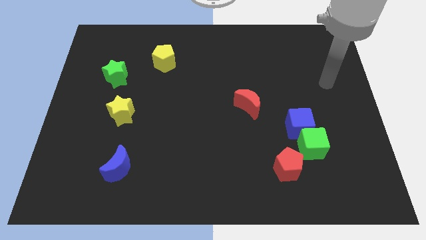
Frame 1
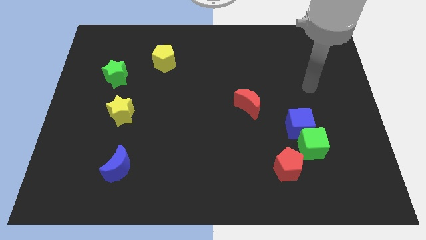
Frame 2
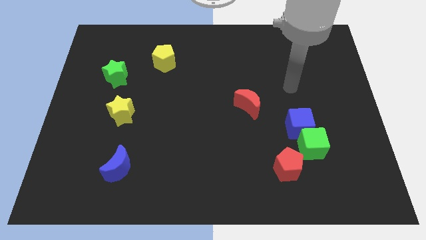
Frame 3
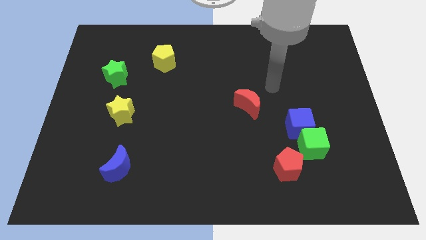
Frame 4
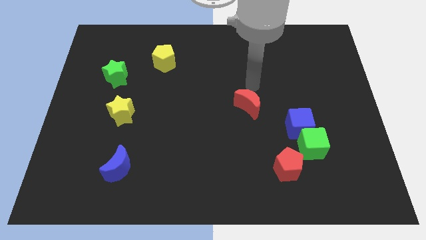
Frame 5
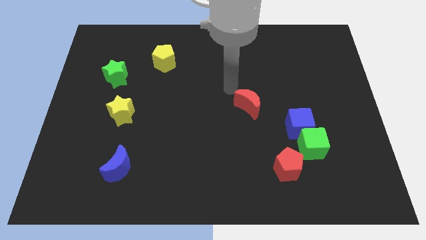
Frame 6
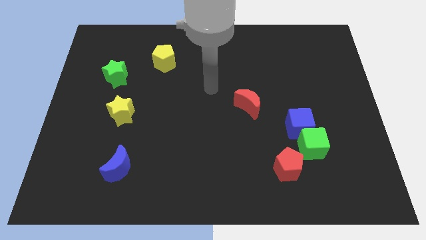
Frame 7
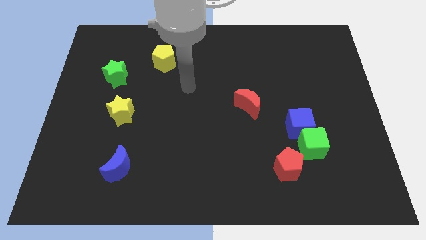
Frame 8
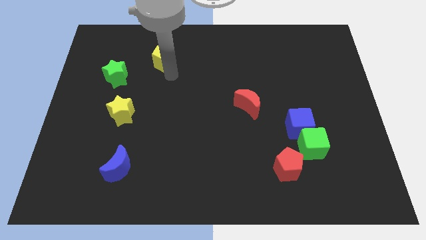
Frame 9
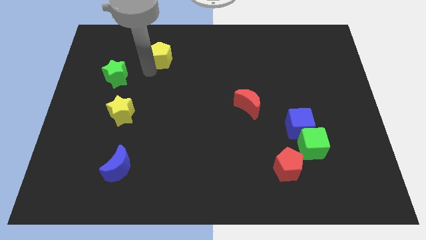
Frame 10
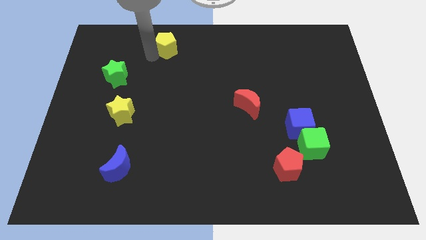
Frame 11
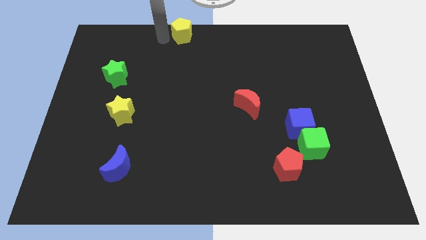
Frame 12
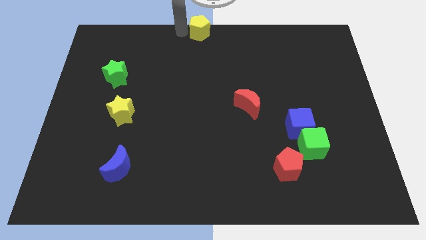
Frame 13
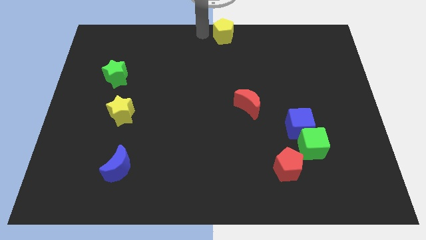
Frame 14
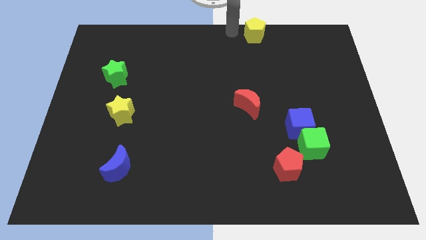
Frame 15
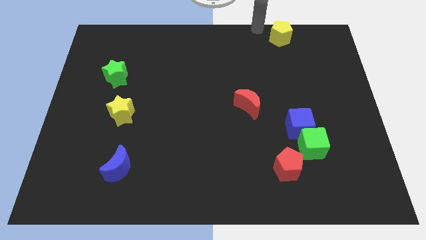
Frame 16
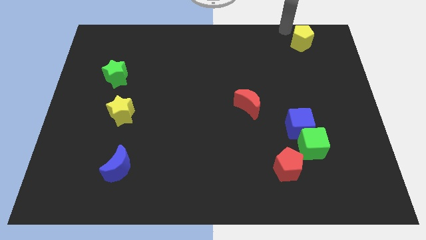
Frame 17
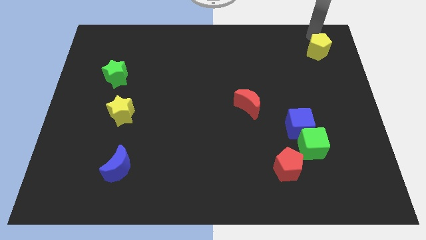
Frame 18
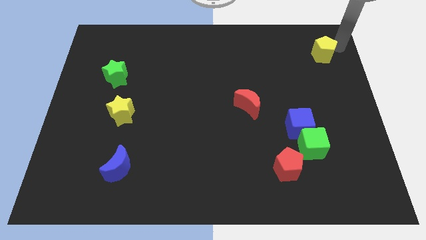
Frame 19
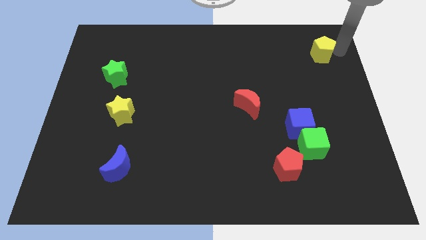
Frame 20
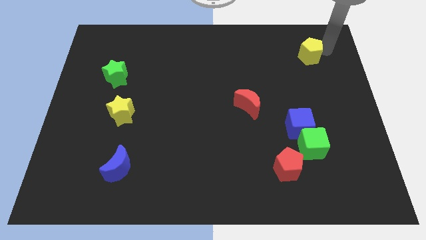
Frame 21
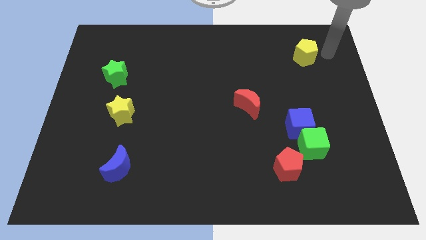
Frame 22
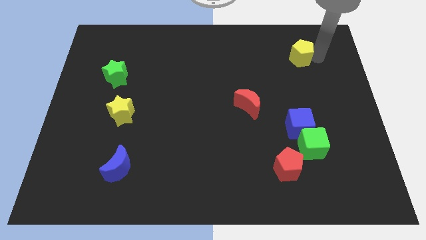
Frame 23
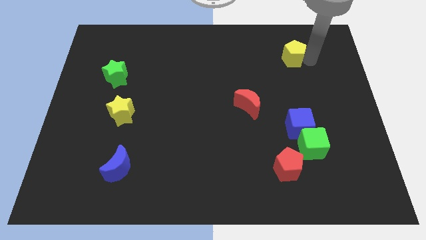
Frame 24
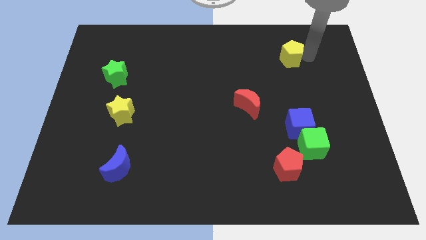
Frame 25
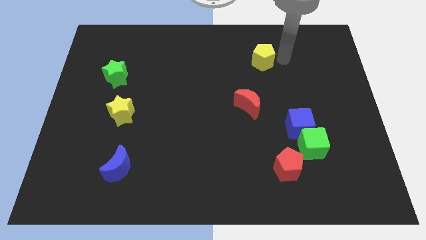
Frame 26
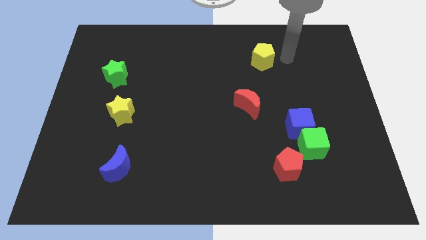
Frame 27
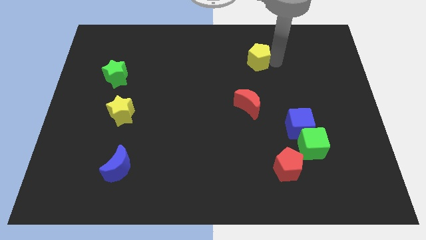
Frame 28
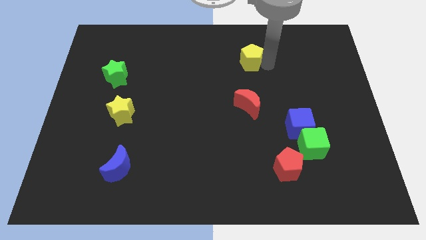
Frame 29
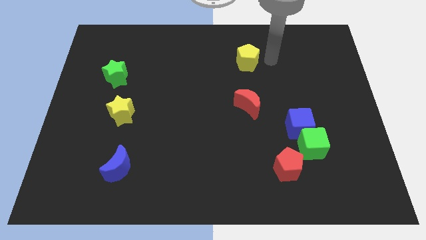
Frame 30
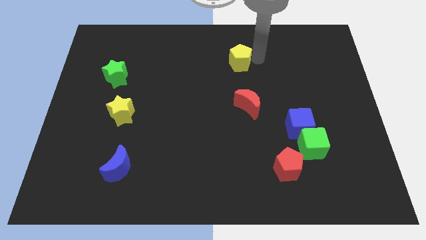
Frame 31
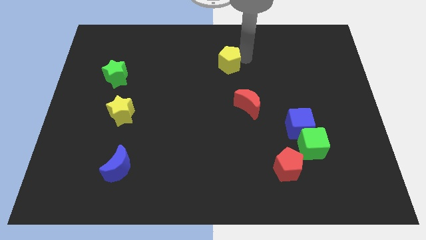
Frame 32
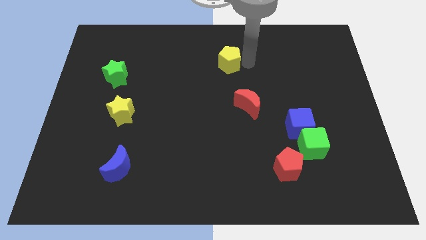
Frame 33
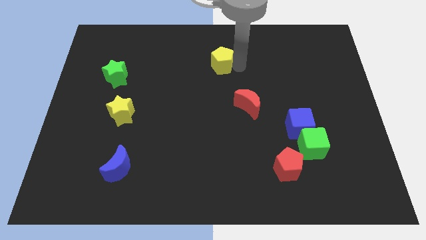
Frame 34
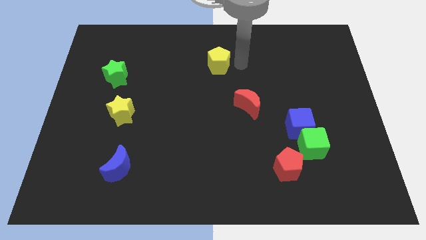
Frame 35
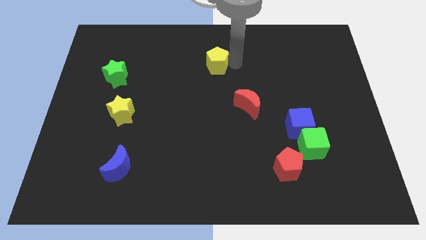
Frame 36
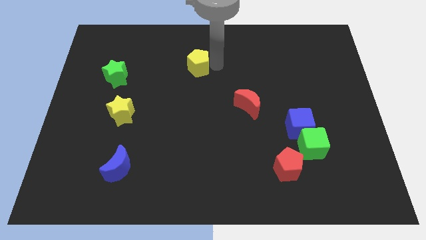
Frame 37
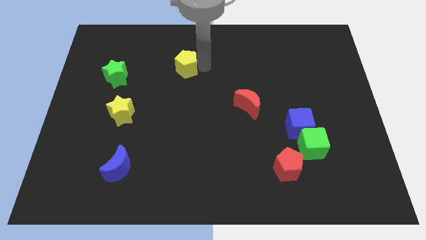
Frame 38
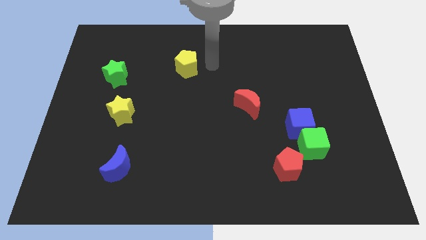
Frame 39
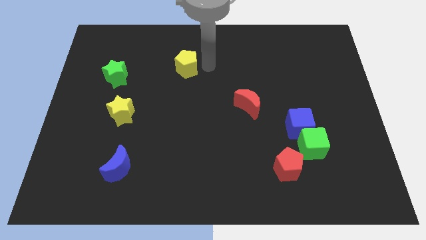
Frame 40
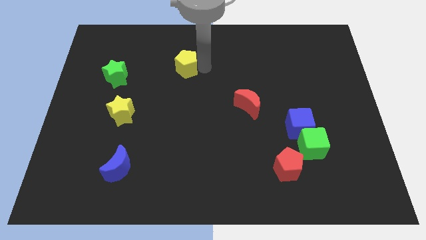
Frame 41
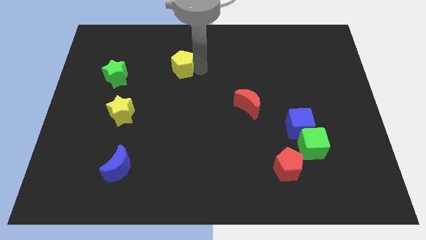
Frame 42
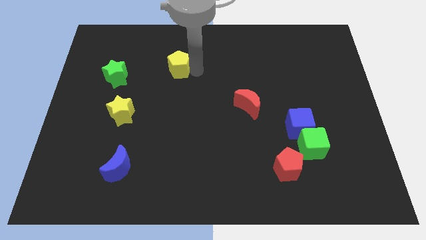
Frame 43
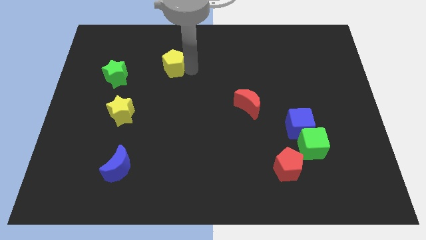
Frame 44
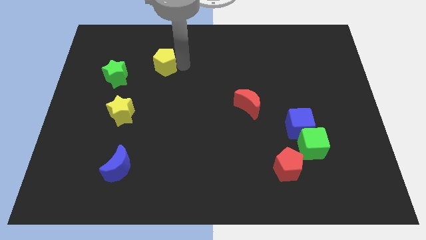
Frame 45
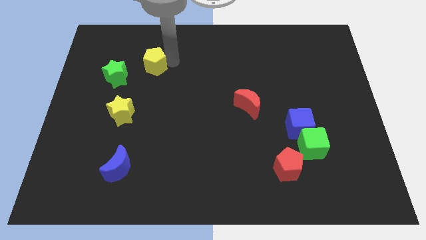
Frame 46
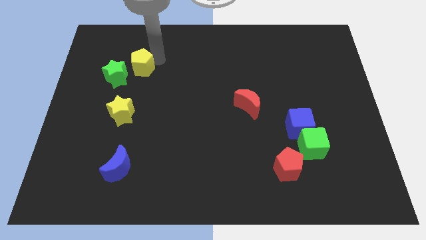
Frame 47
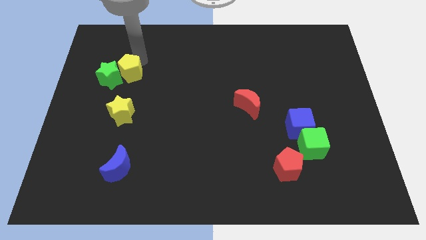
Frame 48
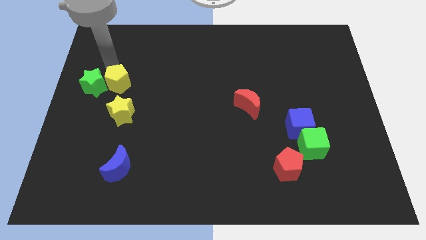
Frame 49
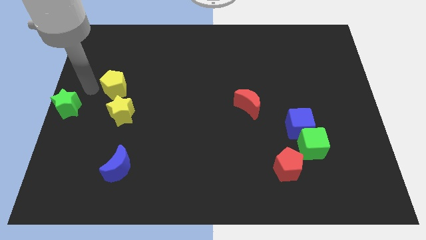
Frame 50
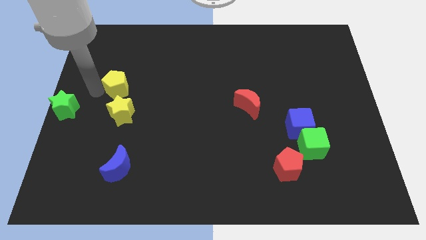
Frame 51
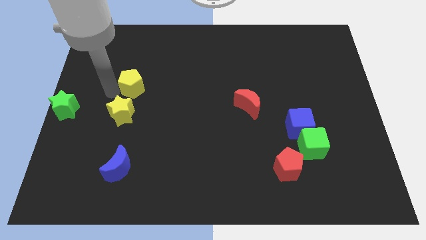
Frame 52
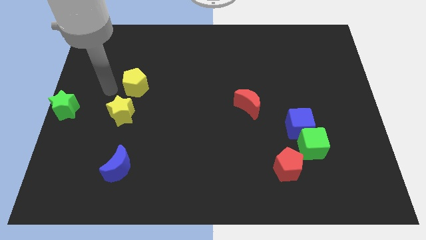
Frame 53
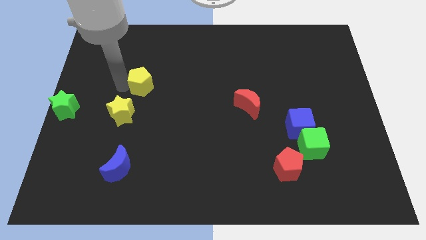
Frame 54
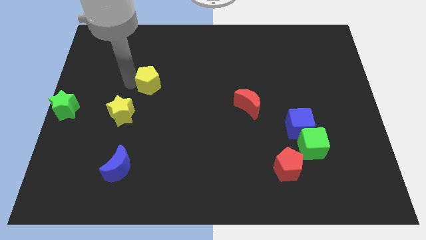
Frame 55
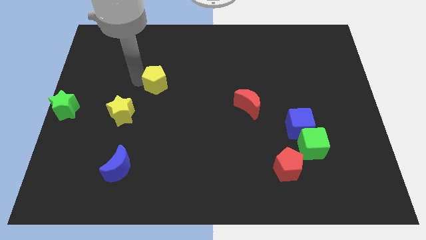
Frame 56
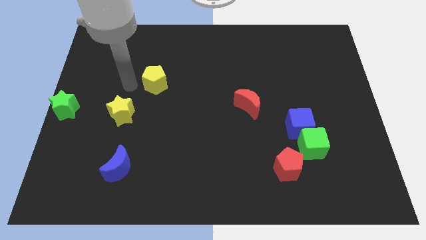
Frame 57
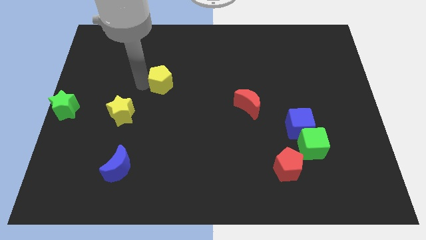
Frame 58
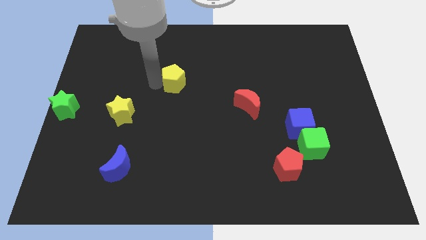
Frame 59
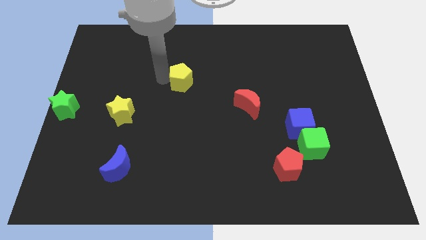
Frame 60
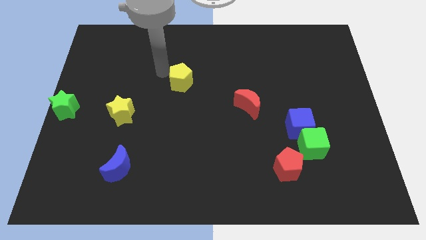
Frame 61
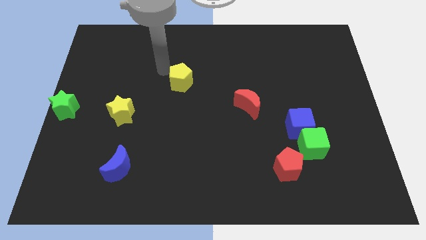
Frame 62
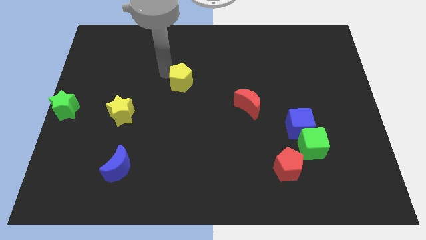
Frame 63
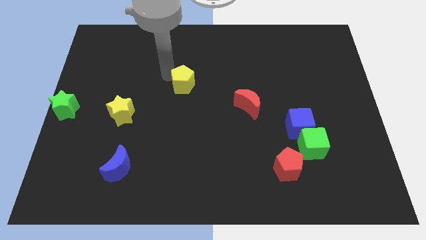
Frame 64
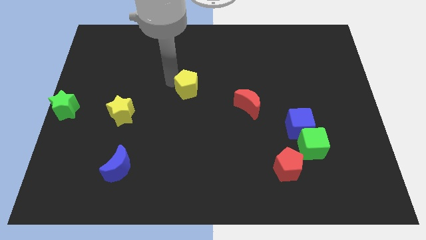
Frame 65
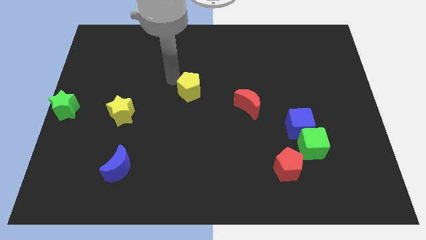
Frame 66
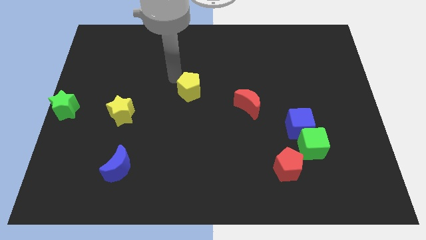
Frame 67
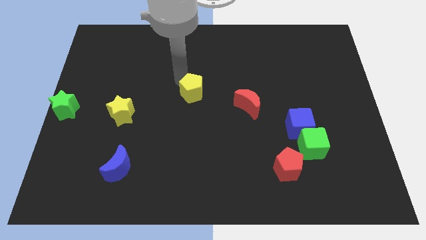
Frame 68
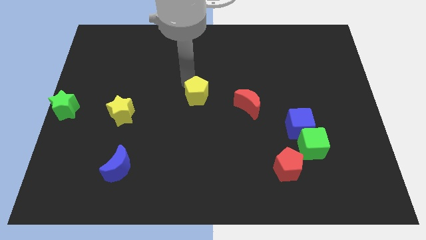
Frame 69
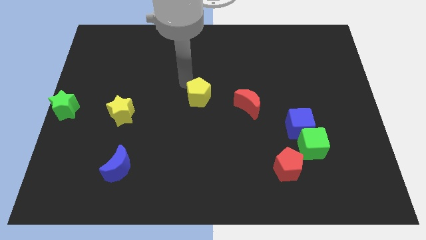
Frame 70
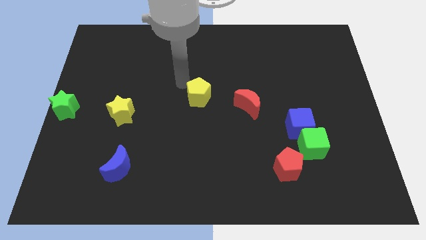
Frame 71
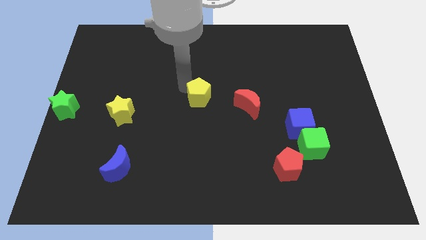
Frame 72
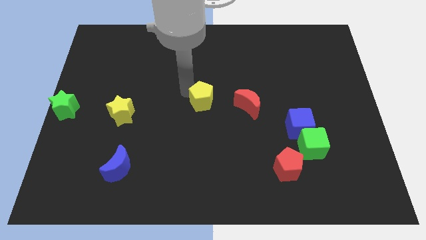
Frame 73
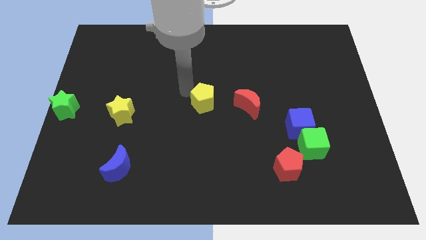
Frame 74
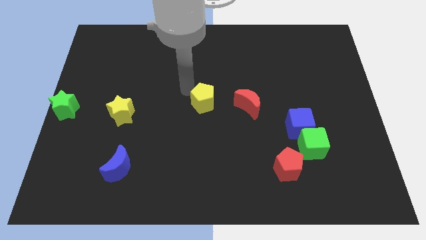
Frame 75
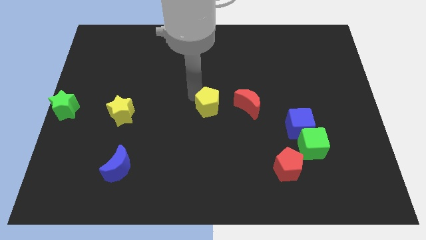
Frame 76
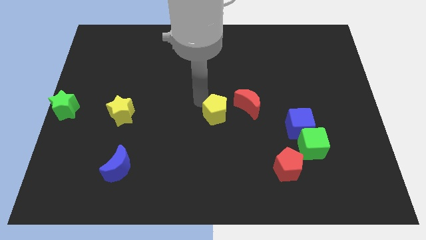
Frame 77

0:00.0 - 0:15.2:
slide the yellow pentagon downwards and then to the right

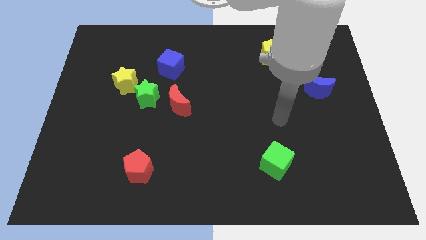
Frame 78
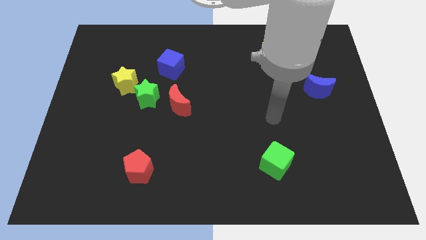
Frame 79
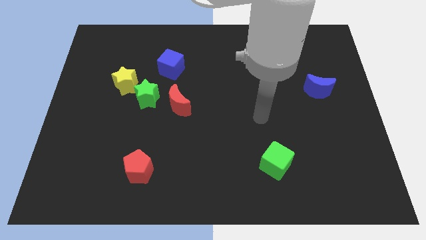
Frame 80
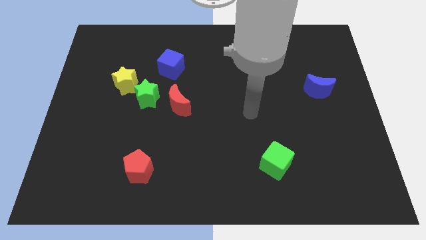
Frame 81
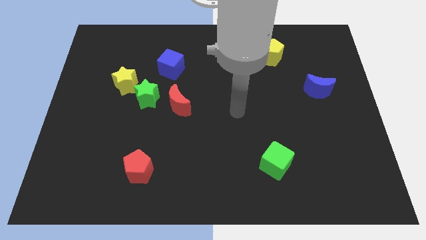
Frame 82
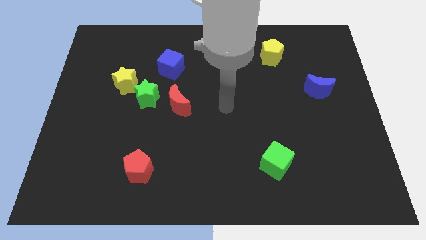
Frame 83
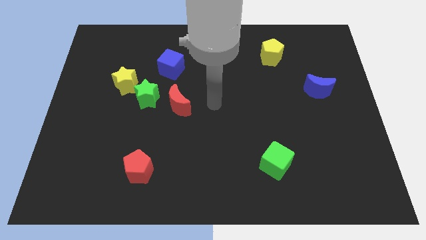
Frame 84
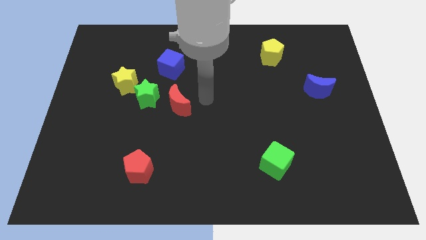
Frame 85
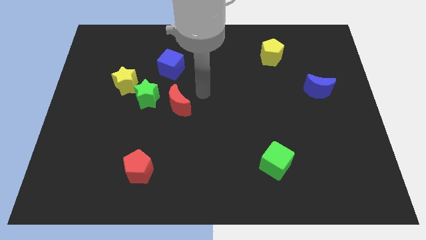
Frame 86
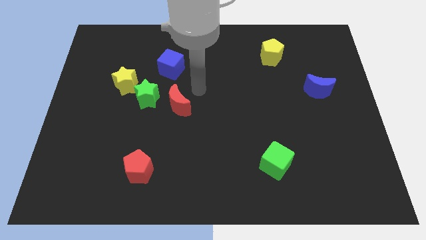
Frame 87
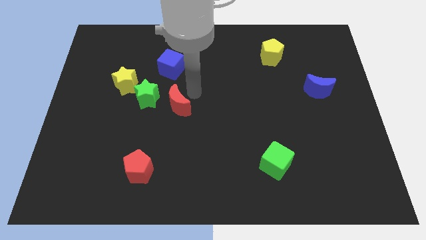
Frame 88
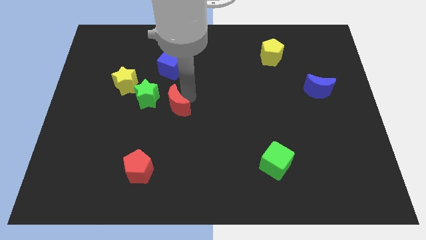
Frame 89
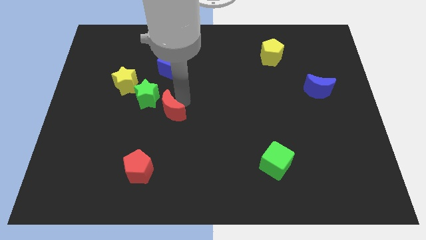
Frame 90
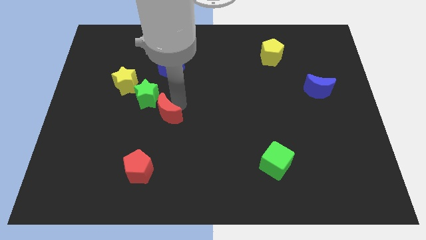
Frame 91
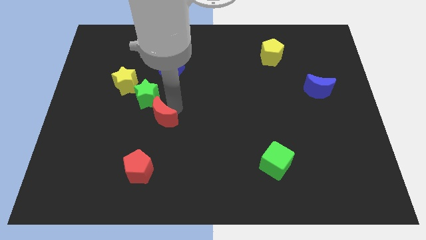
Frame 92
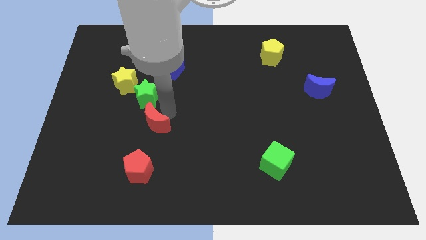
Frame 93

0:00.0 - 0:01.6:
push the red moon a little downwards and left diagonally
